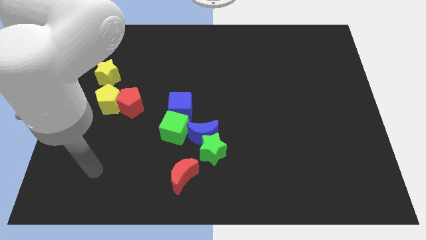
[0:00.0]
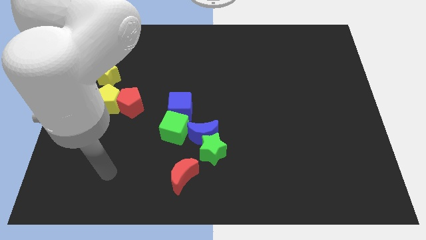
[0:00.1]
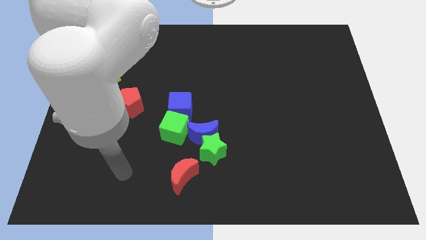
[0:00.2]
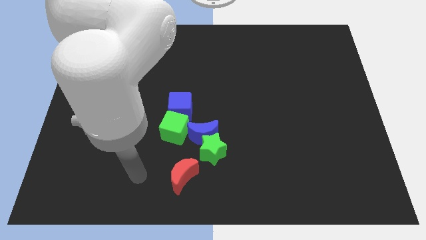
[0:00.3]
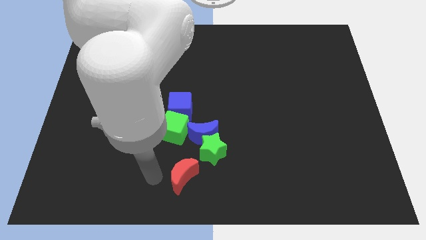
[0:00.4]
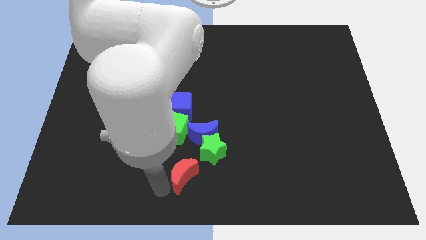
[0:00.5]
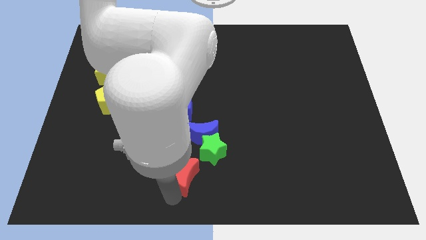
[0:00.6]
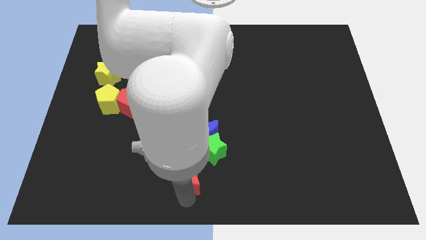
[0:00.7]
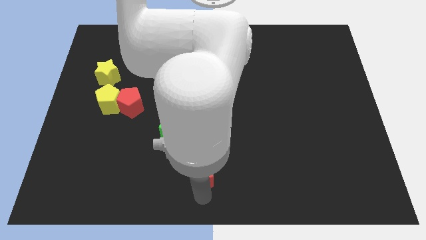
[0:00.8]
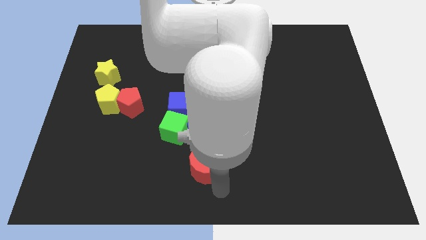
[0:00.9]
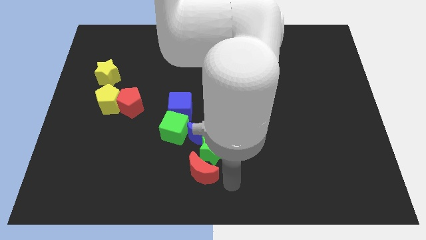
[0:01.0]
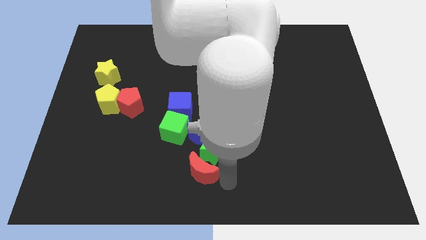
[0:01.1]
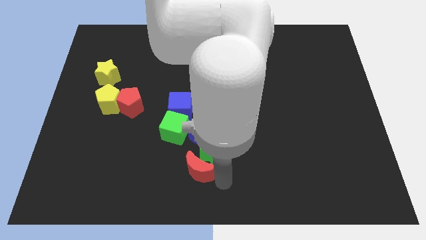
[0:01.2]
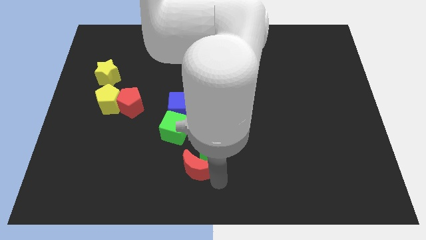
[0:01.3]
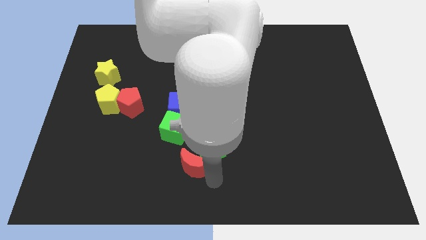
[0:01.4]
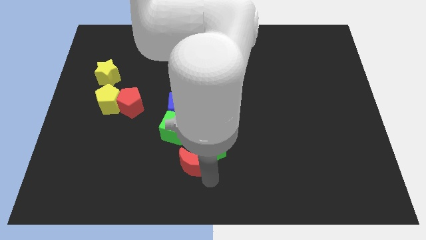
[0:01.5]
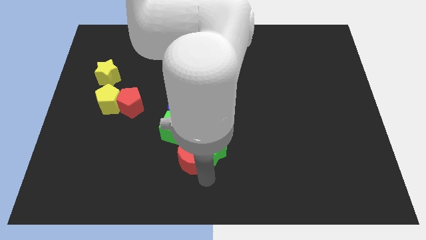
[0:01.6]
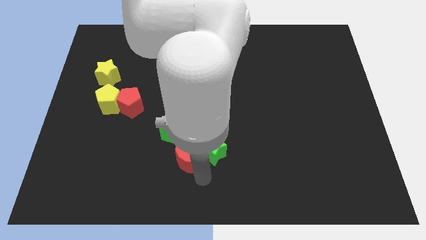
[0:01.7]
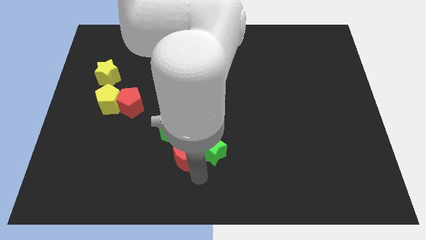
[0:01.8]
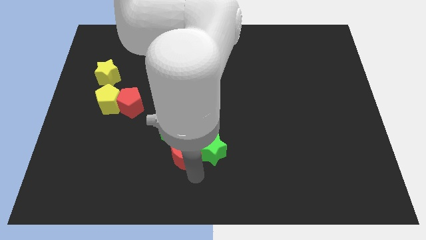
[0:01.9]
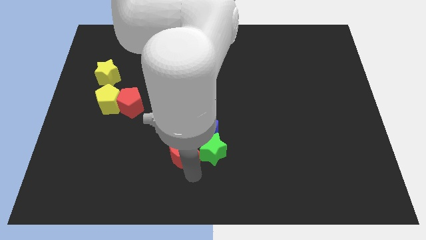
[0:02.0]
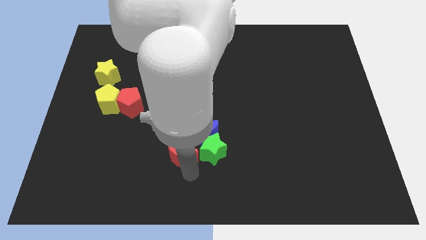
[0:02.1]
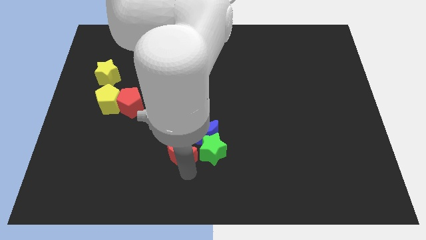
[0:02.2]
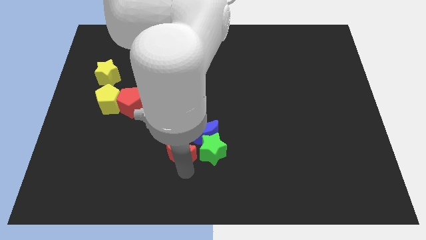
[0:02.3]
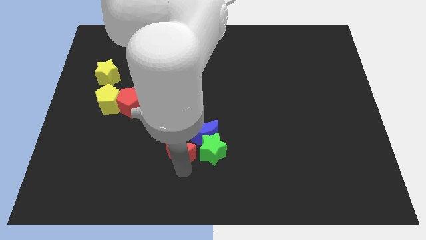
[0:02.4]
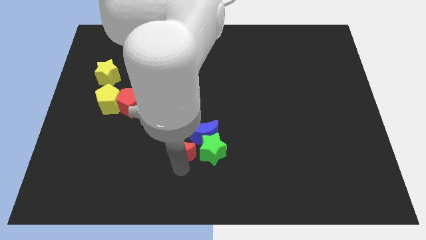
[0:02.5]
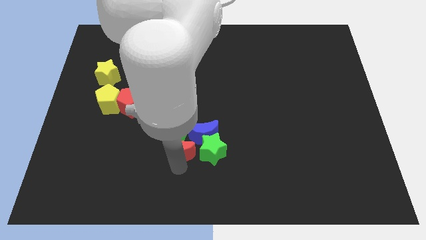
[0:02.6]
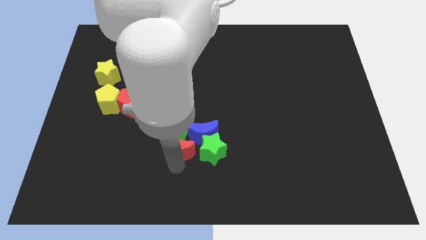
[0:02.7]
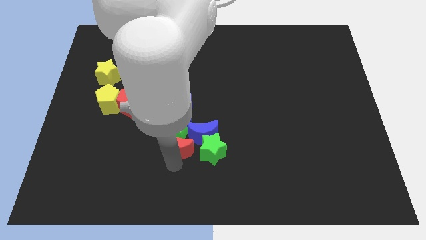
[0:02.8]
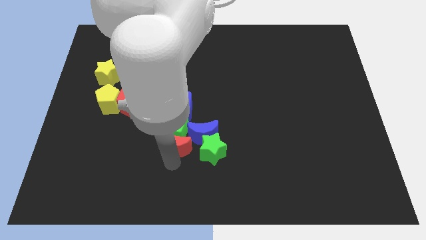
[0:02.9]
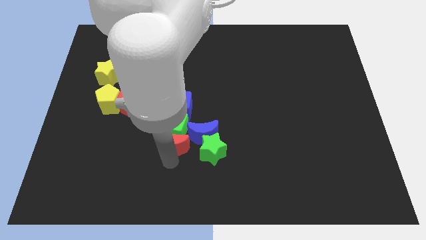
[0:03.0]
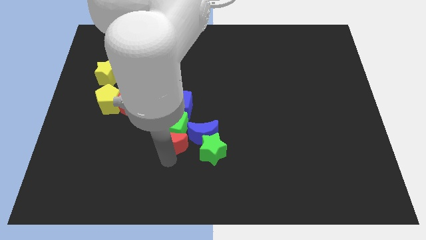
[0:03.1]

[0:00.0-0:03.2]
slide the red moon up and then to the left a bit

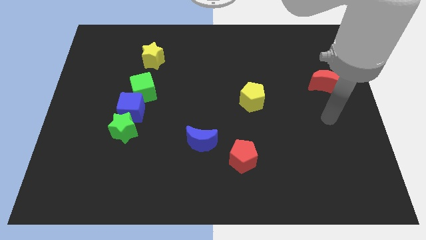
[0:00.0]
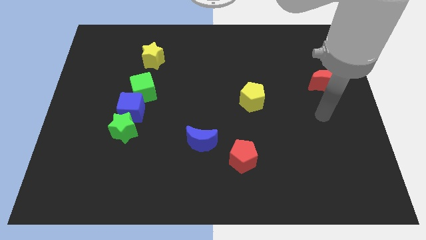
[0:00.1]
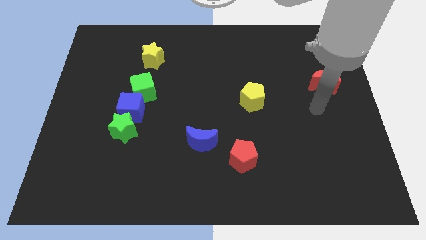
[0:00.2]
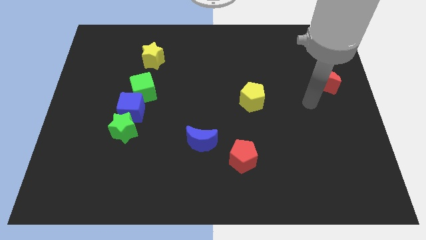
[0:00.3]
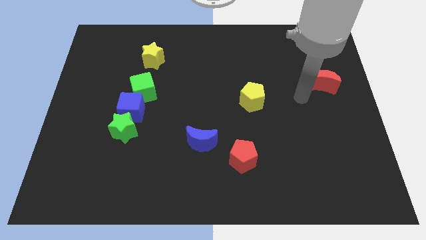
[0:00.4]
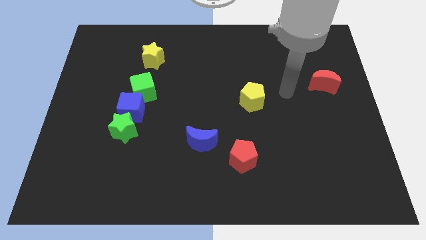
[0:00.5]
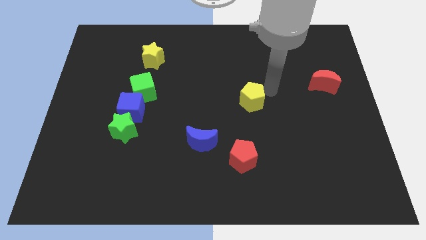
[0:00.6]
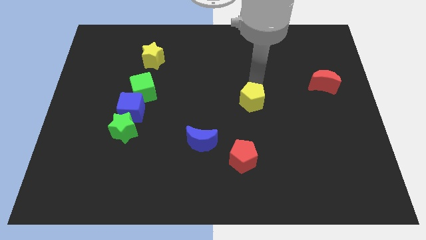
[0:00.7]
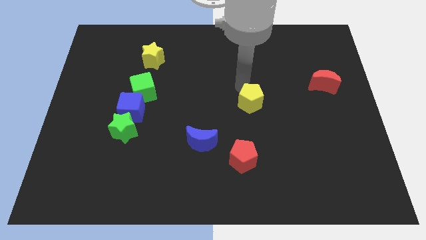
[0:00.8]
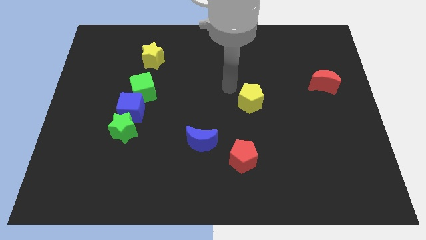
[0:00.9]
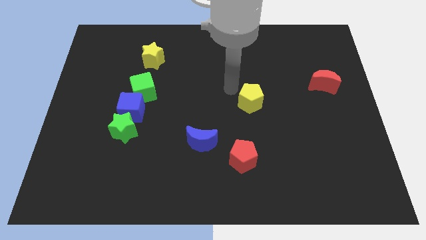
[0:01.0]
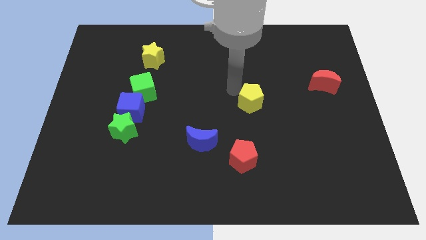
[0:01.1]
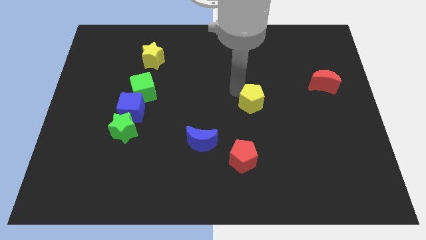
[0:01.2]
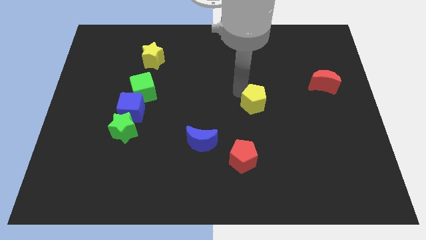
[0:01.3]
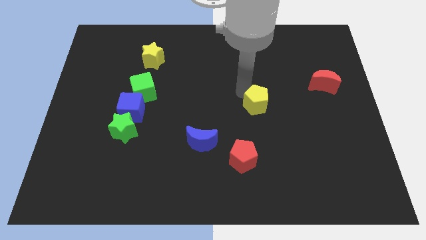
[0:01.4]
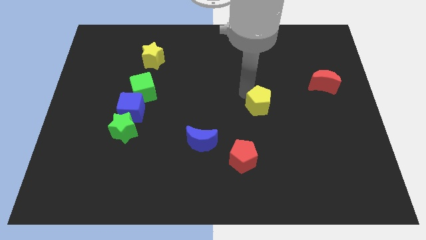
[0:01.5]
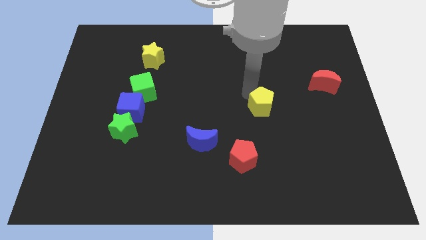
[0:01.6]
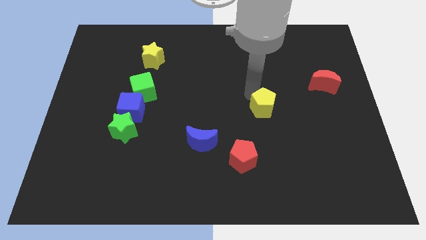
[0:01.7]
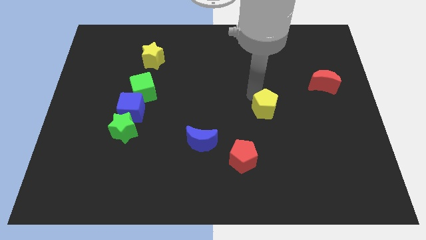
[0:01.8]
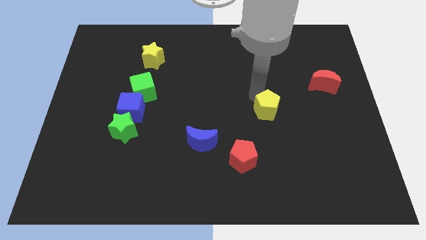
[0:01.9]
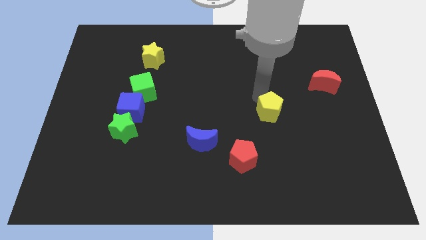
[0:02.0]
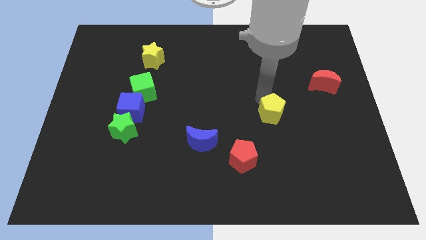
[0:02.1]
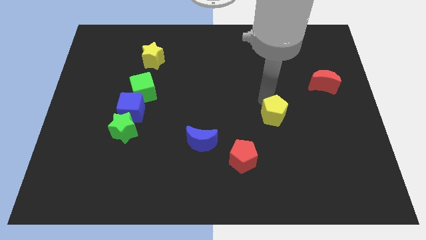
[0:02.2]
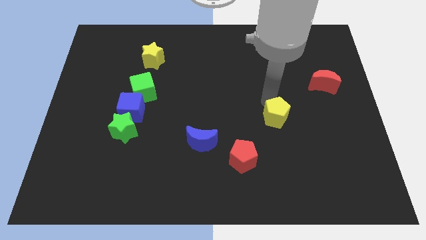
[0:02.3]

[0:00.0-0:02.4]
move the yellow pentagon downwards and then right a little

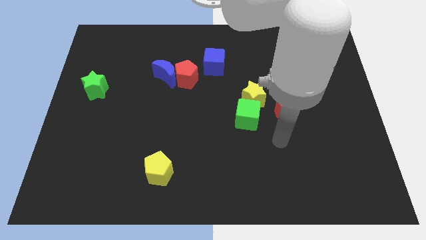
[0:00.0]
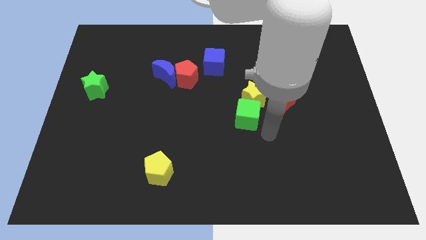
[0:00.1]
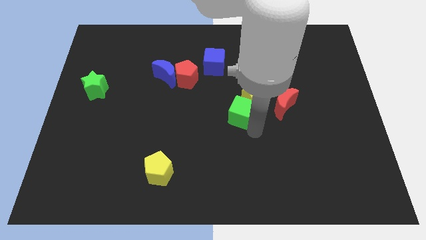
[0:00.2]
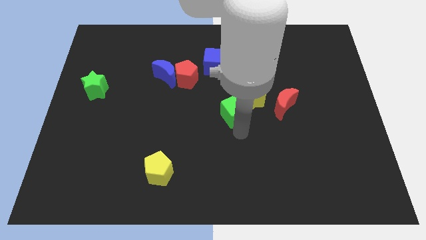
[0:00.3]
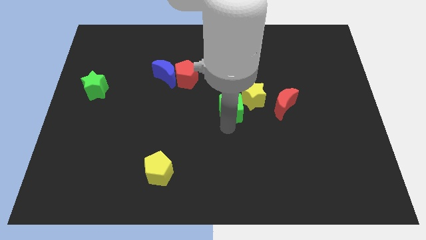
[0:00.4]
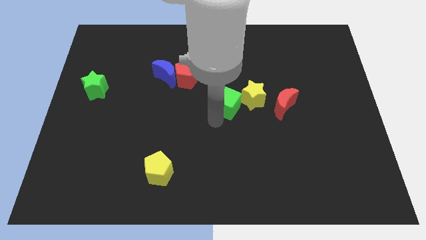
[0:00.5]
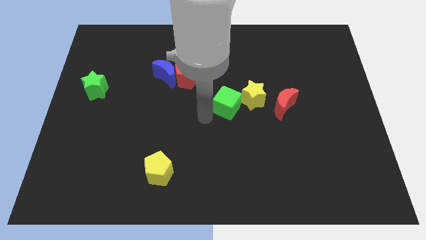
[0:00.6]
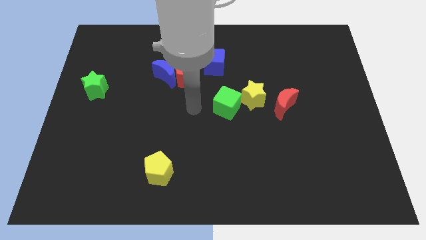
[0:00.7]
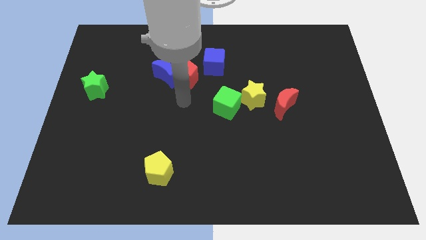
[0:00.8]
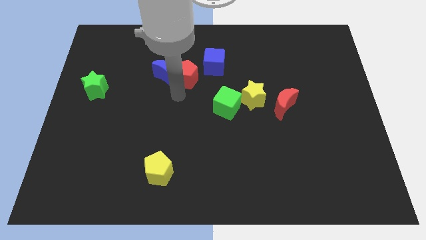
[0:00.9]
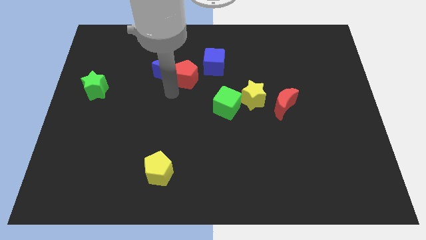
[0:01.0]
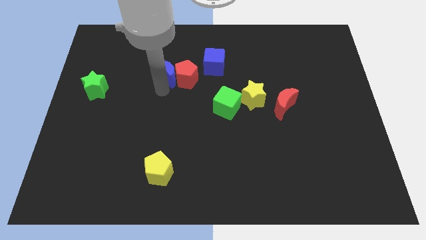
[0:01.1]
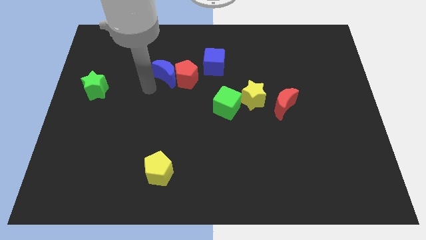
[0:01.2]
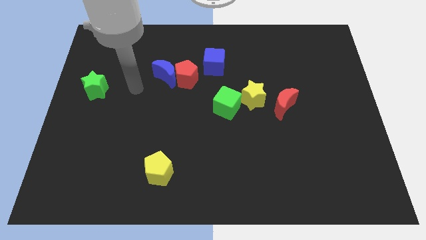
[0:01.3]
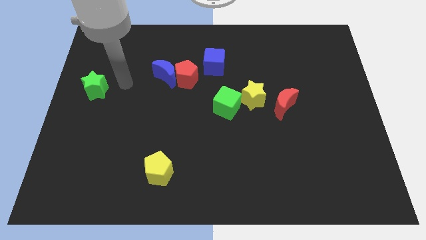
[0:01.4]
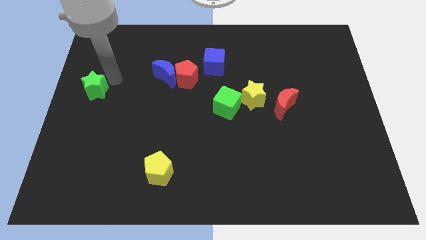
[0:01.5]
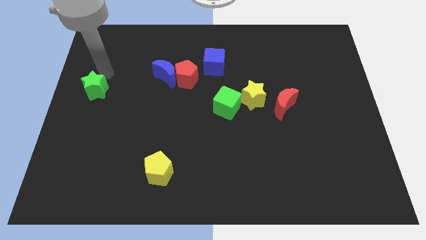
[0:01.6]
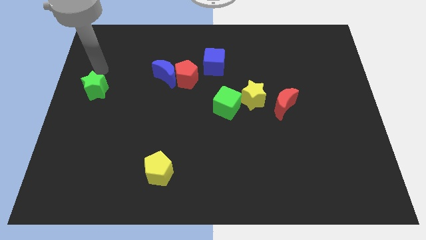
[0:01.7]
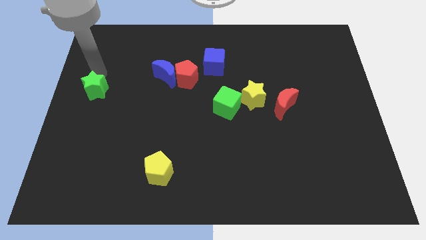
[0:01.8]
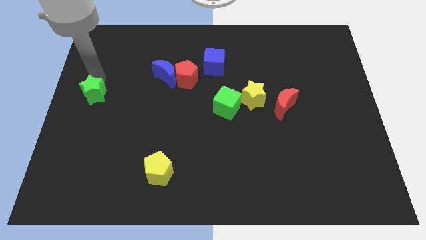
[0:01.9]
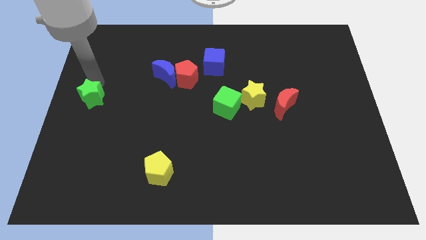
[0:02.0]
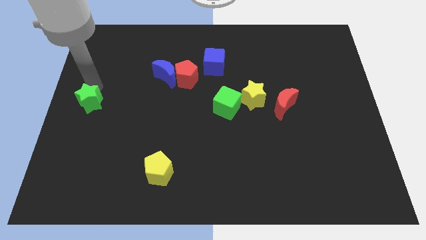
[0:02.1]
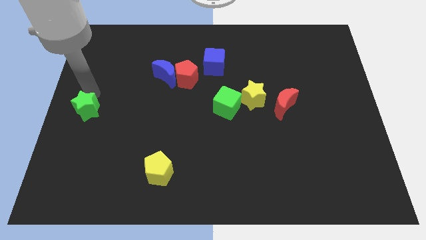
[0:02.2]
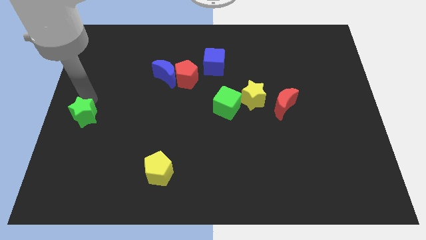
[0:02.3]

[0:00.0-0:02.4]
move the green star down slightly
